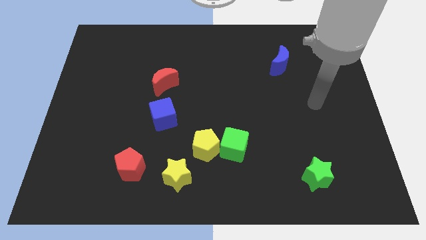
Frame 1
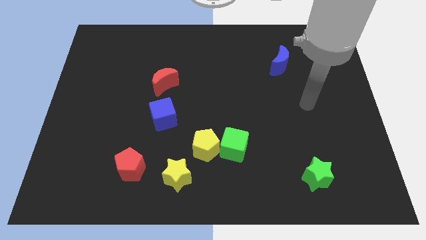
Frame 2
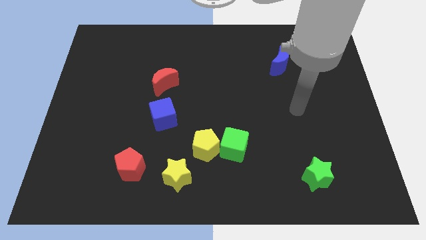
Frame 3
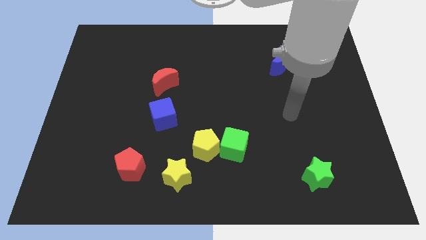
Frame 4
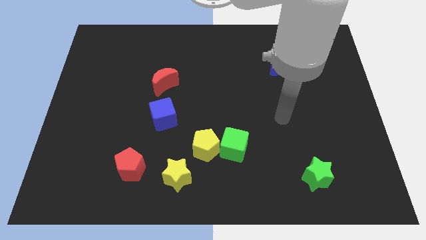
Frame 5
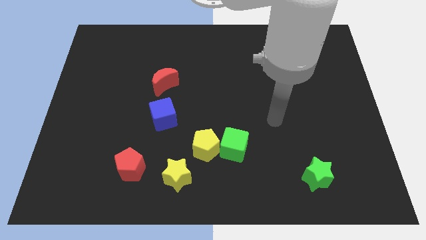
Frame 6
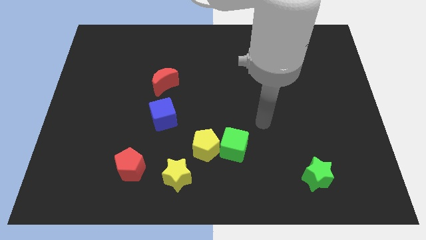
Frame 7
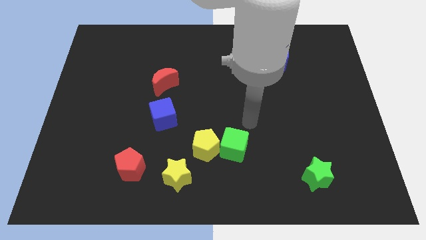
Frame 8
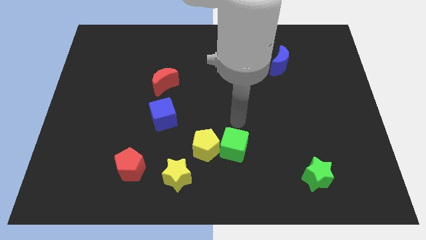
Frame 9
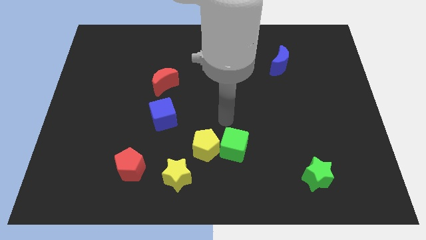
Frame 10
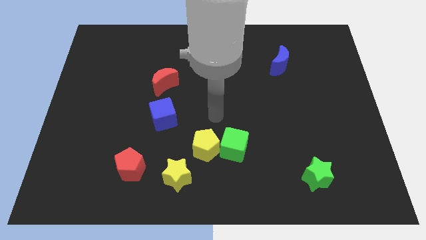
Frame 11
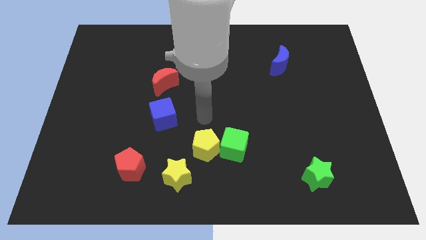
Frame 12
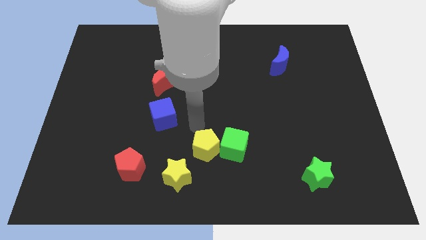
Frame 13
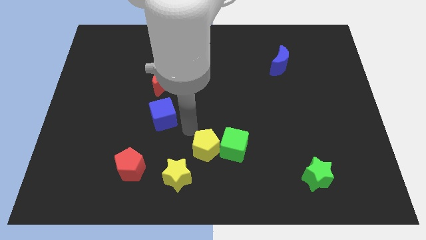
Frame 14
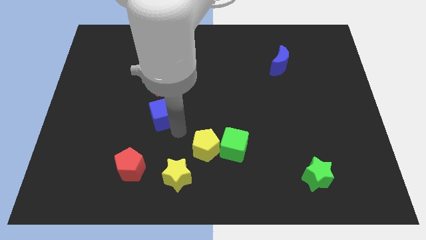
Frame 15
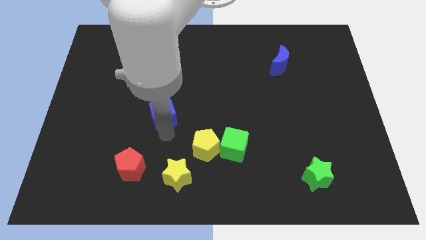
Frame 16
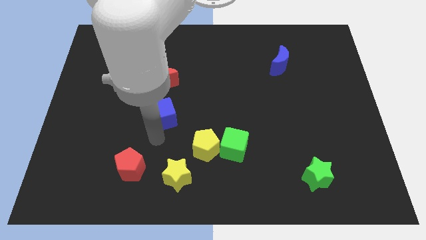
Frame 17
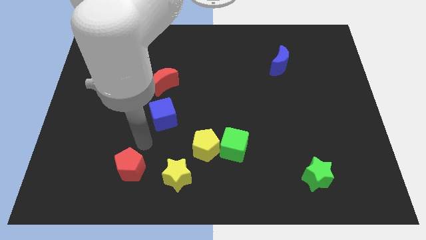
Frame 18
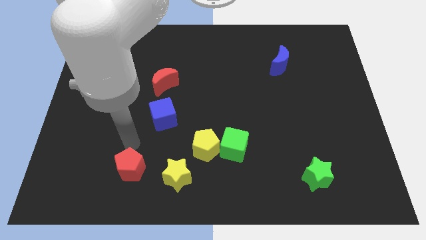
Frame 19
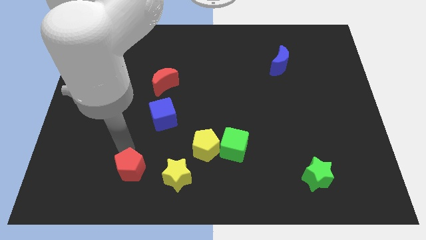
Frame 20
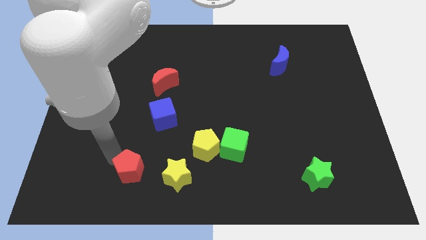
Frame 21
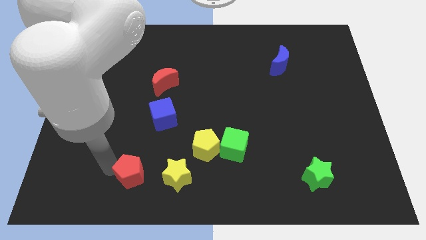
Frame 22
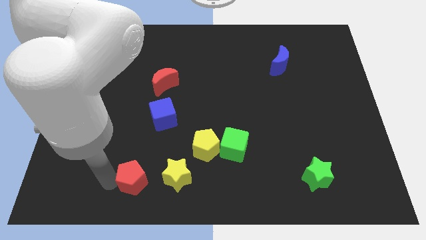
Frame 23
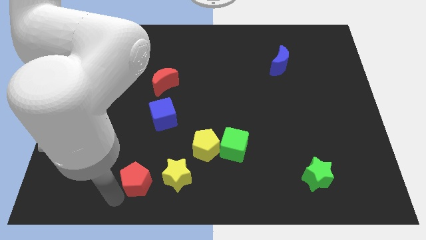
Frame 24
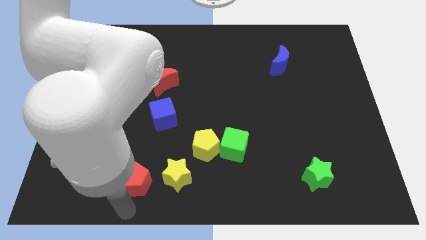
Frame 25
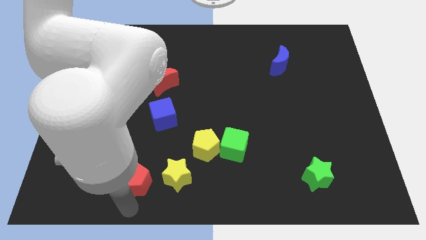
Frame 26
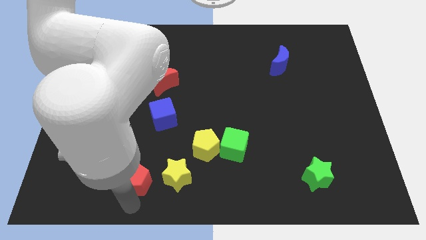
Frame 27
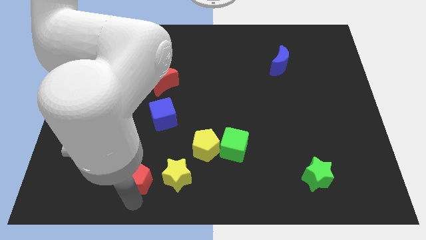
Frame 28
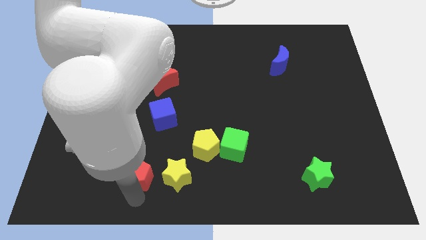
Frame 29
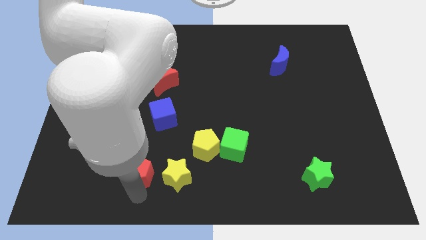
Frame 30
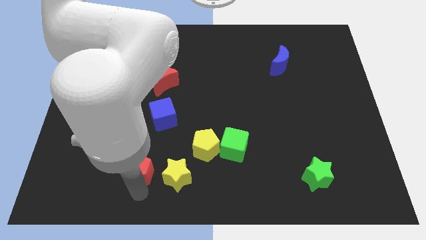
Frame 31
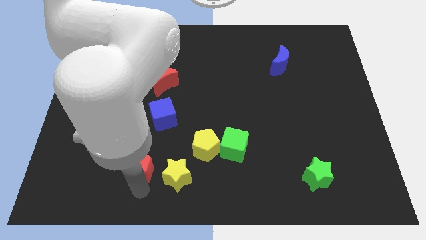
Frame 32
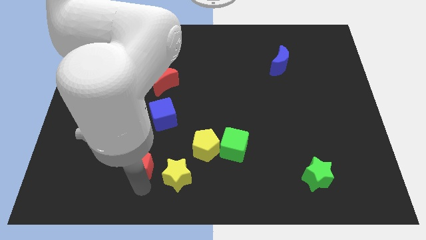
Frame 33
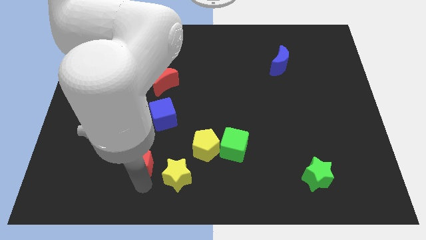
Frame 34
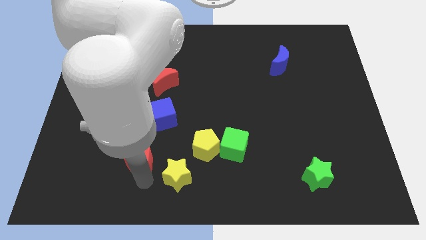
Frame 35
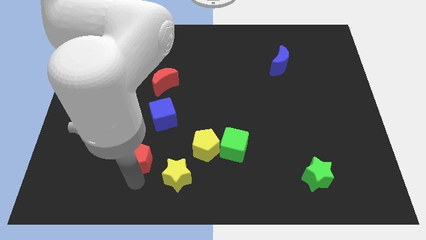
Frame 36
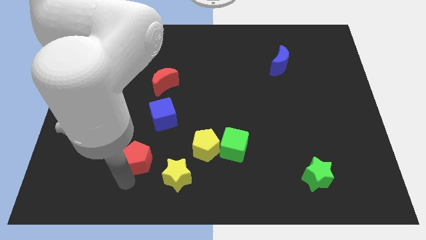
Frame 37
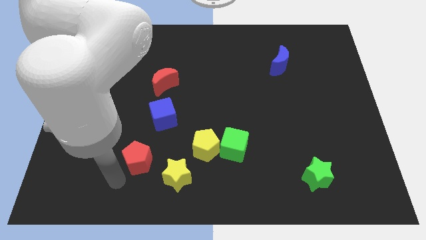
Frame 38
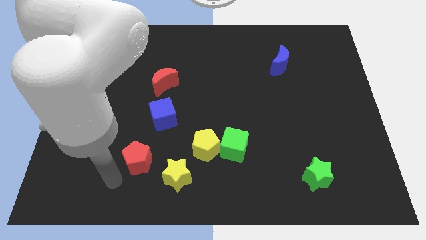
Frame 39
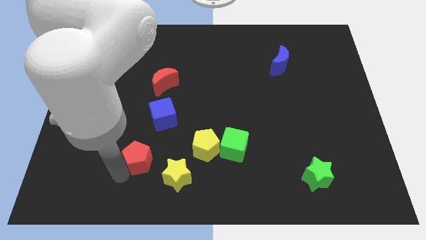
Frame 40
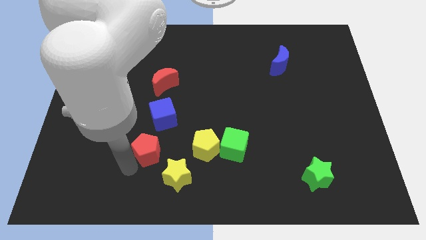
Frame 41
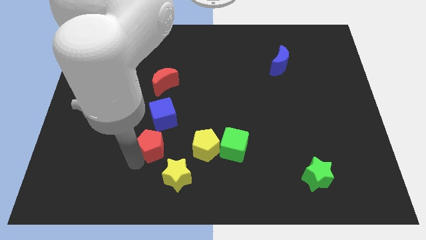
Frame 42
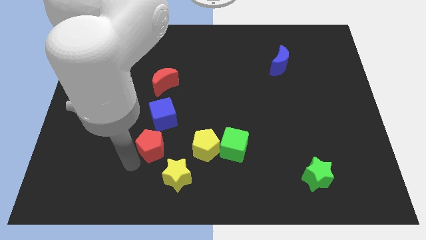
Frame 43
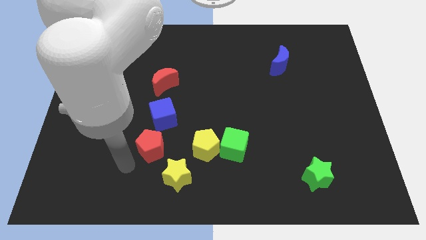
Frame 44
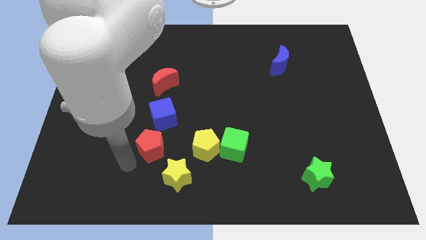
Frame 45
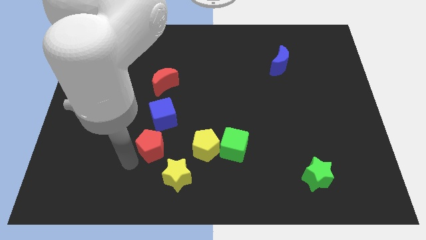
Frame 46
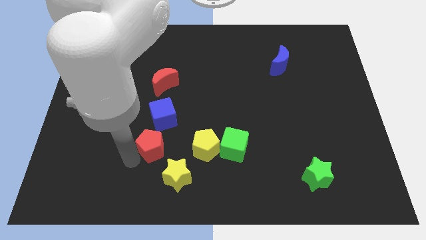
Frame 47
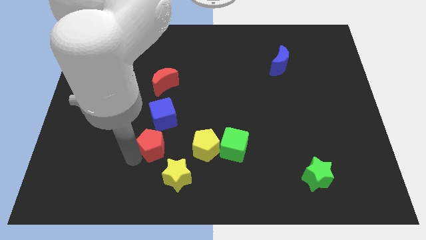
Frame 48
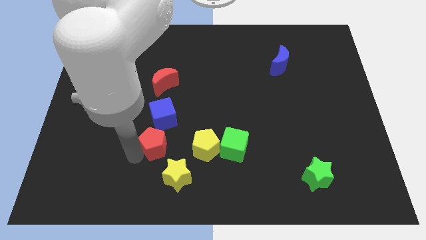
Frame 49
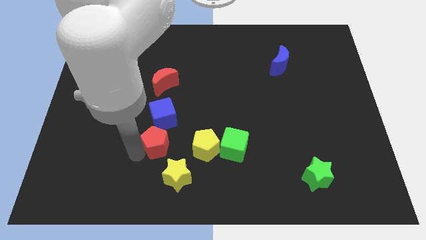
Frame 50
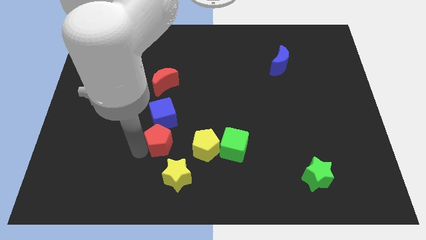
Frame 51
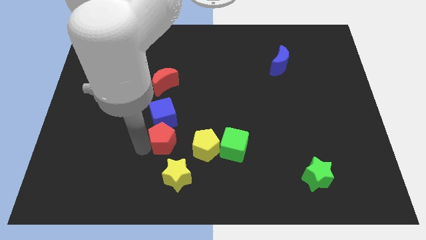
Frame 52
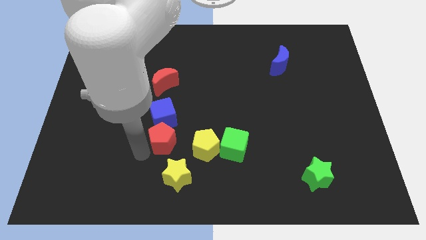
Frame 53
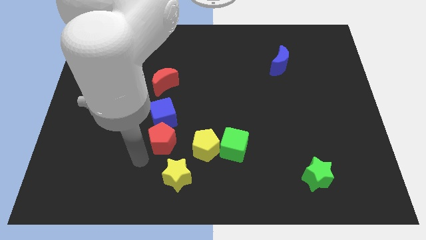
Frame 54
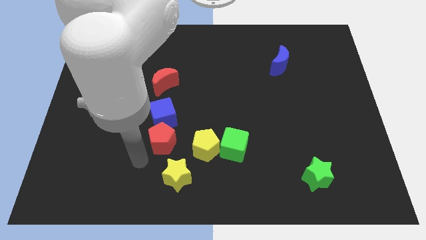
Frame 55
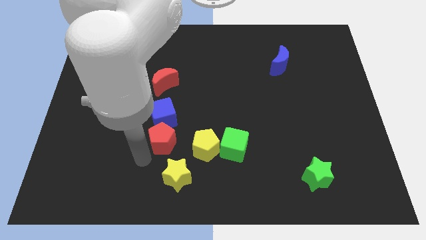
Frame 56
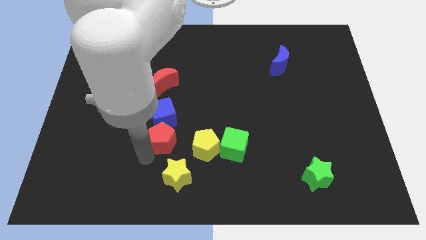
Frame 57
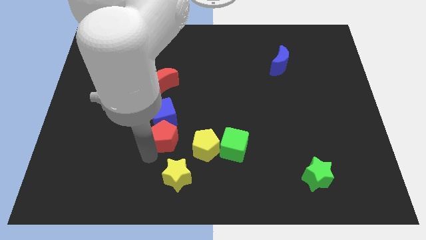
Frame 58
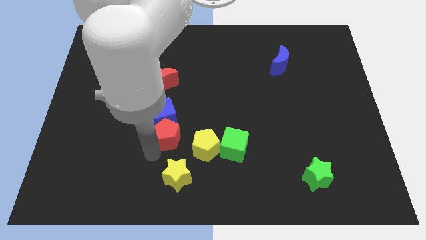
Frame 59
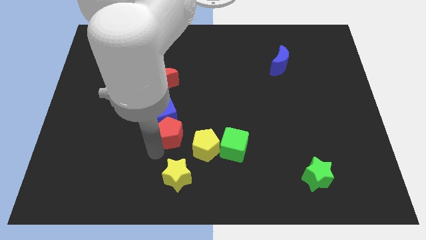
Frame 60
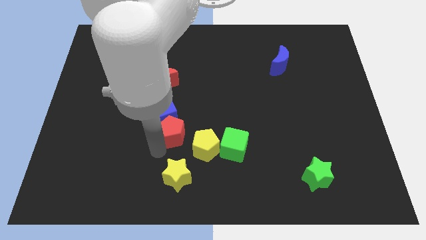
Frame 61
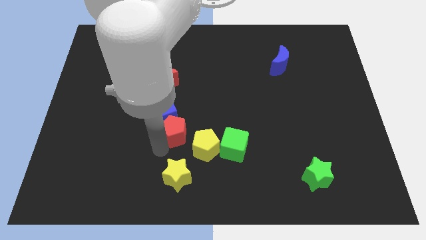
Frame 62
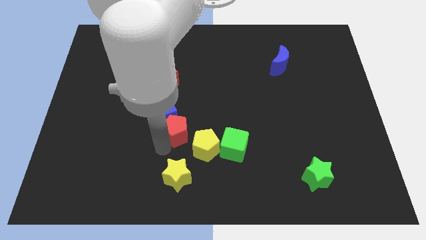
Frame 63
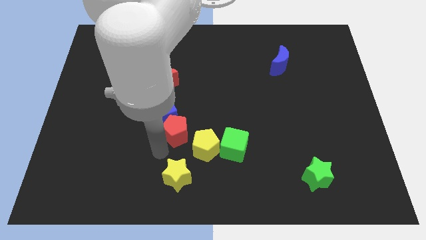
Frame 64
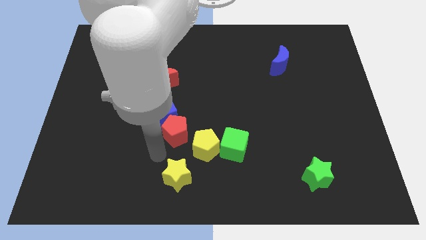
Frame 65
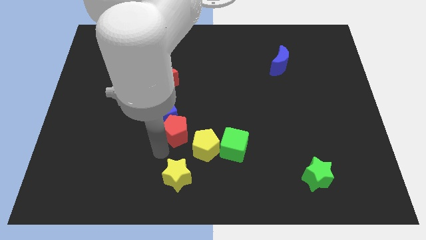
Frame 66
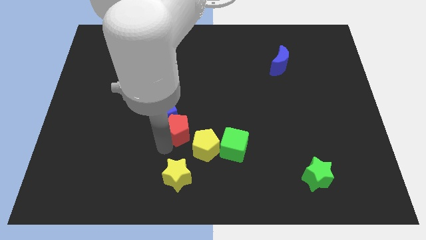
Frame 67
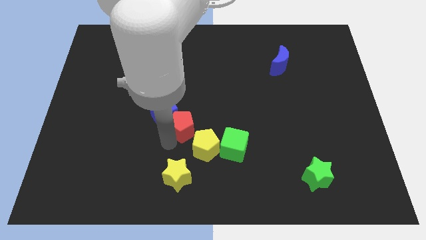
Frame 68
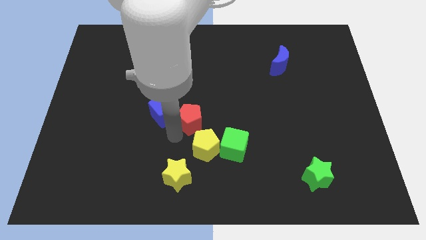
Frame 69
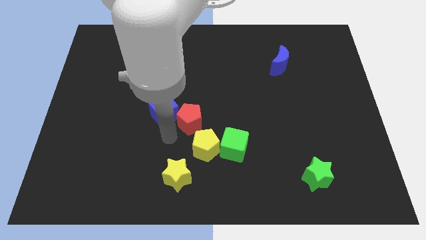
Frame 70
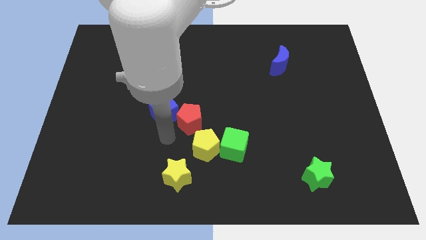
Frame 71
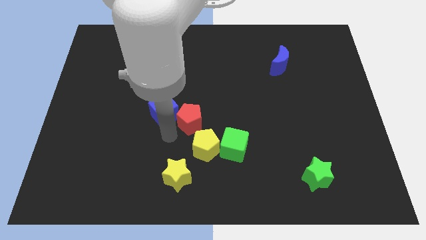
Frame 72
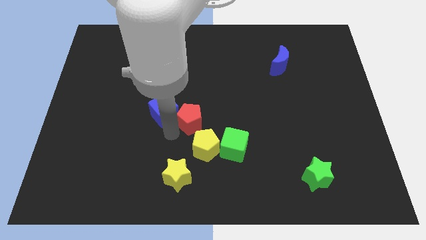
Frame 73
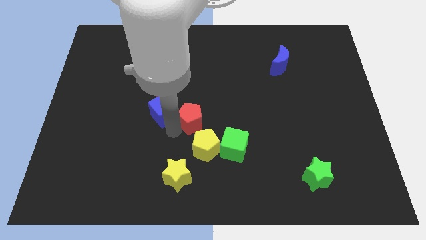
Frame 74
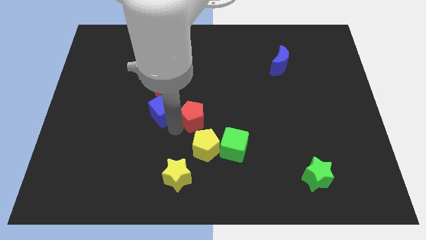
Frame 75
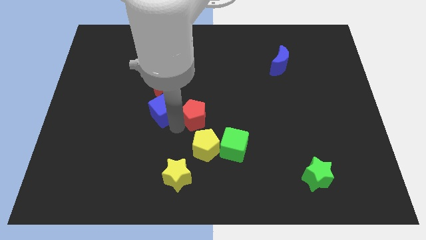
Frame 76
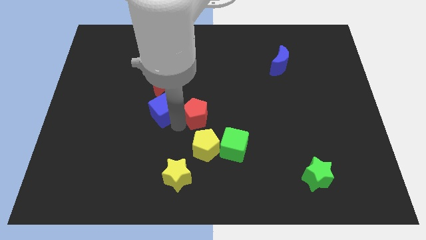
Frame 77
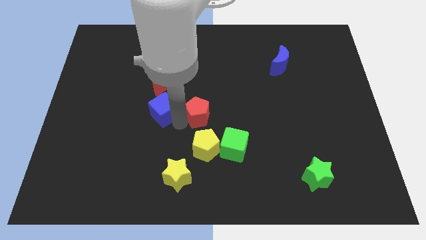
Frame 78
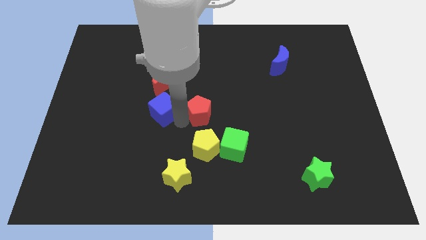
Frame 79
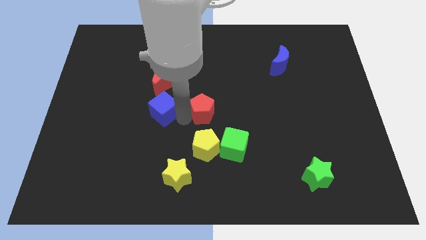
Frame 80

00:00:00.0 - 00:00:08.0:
slide the red pentagon up and then to the right

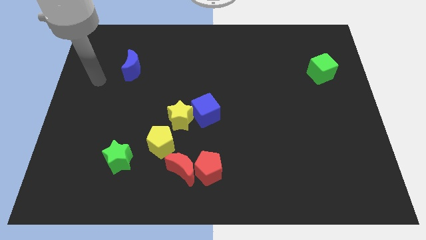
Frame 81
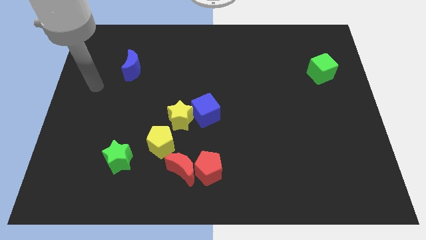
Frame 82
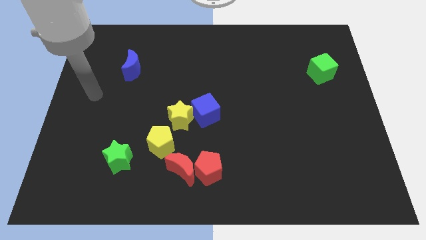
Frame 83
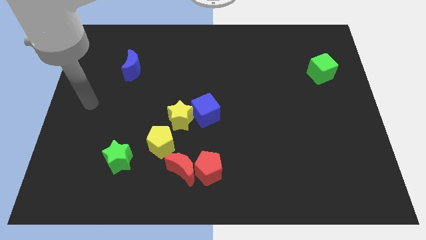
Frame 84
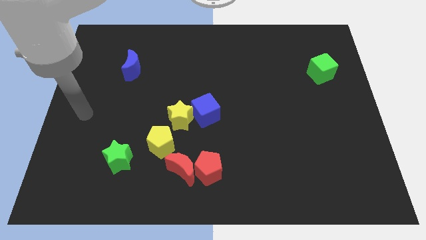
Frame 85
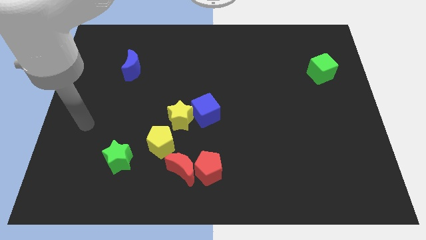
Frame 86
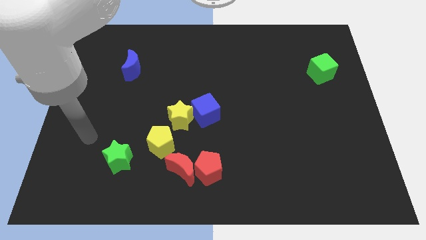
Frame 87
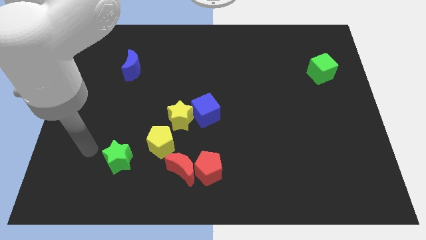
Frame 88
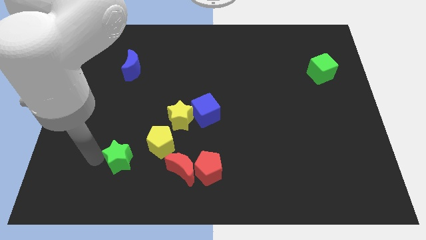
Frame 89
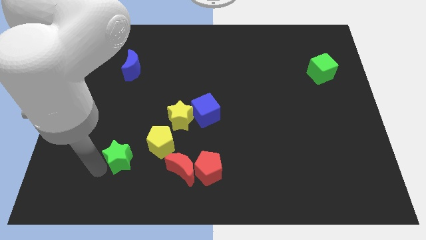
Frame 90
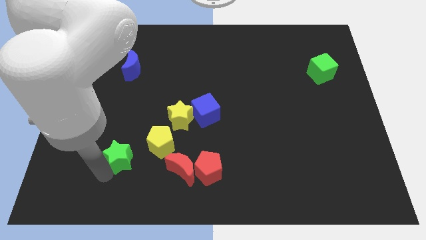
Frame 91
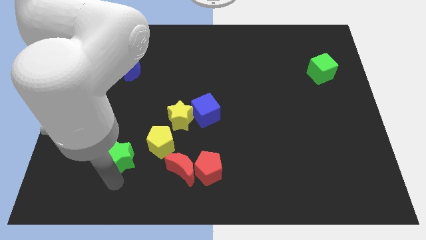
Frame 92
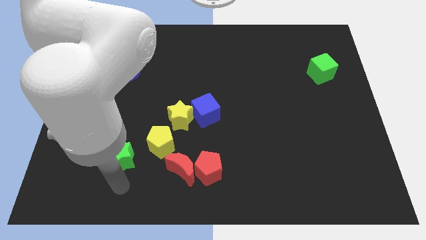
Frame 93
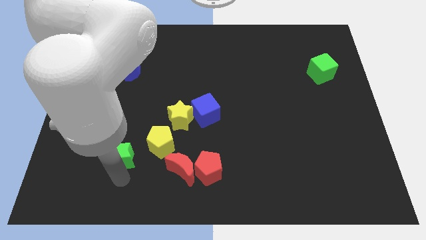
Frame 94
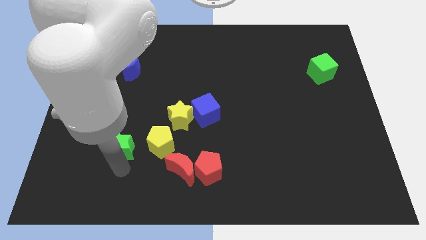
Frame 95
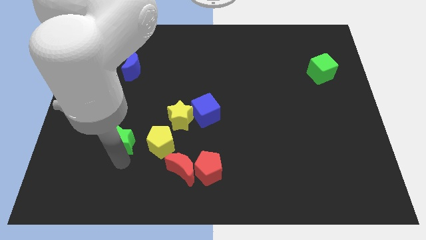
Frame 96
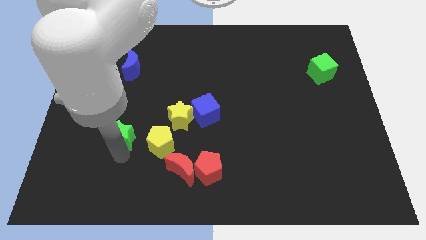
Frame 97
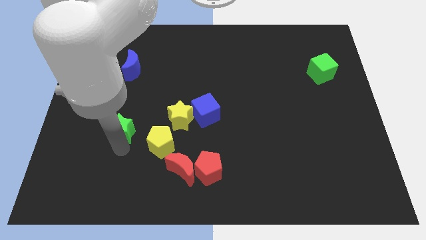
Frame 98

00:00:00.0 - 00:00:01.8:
move the green star upwards somewhat
